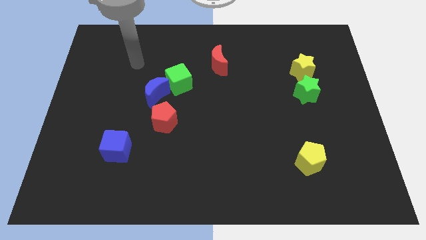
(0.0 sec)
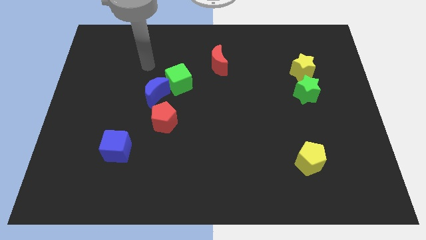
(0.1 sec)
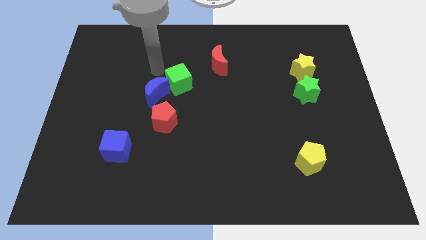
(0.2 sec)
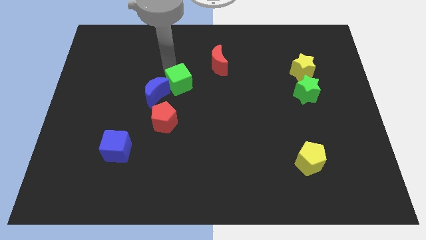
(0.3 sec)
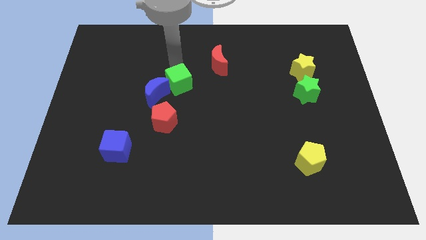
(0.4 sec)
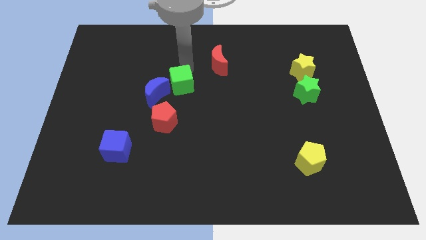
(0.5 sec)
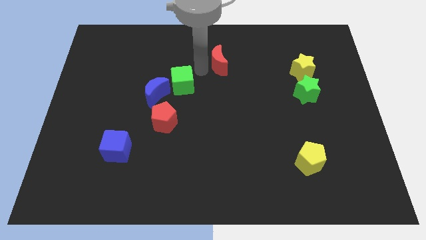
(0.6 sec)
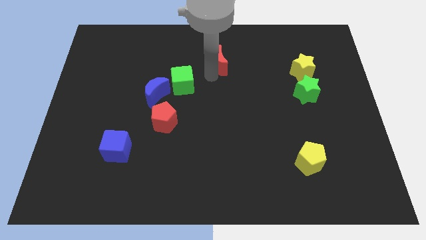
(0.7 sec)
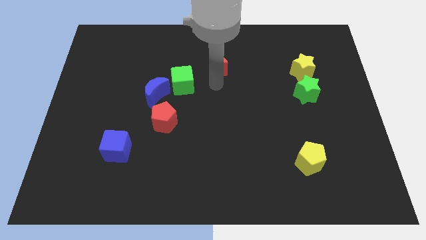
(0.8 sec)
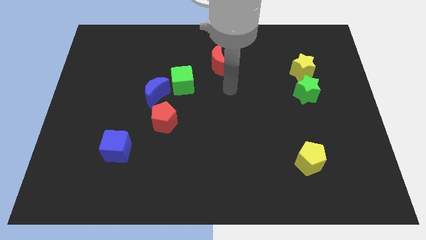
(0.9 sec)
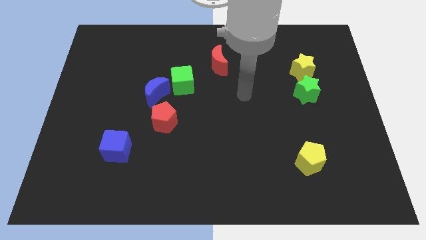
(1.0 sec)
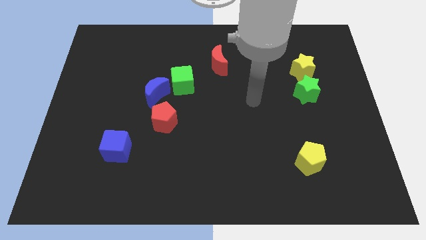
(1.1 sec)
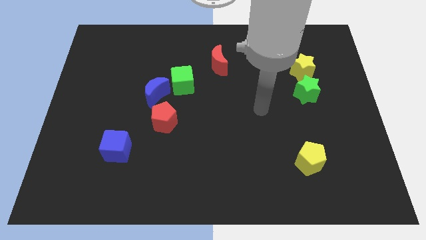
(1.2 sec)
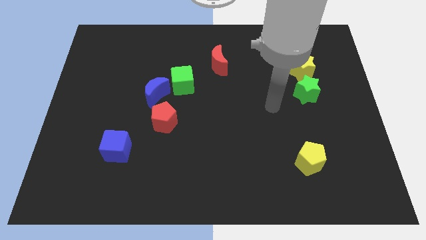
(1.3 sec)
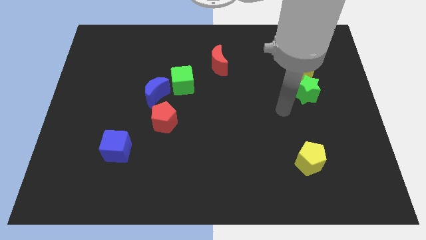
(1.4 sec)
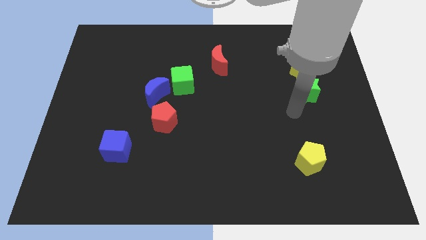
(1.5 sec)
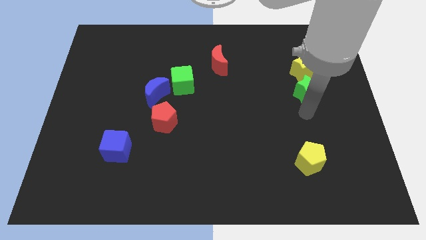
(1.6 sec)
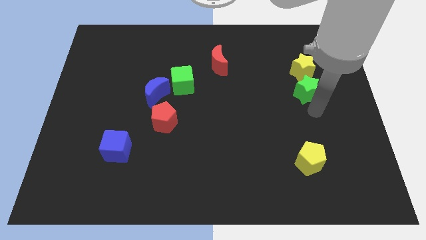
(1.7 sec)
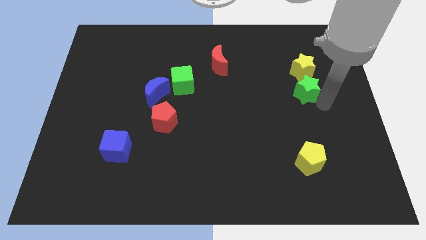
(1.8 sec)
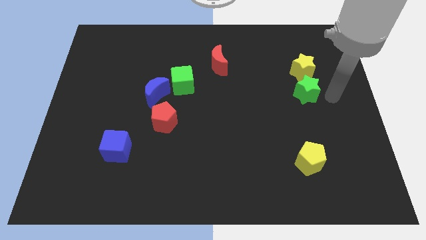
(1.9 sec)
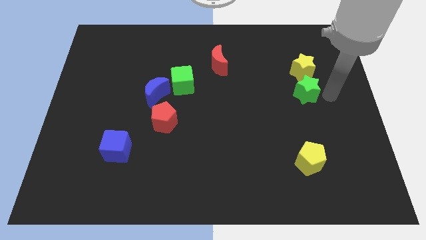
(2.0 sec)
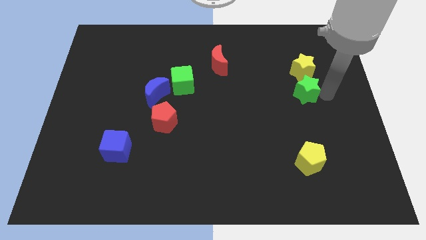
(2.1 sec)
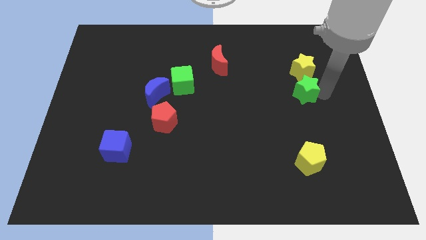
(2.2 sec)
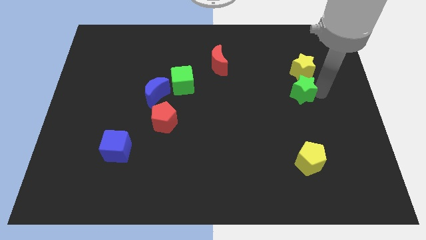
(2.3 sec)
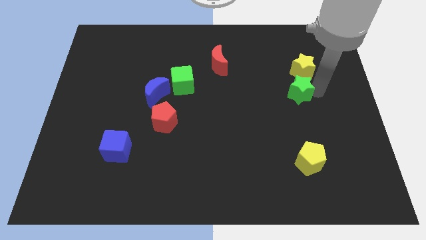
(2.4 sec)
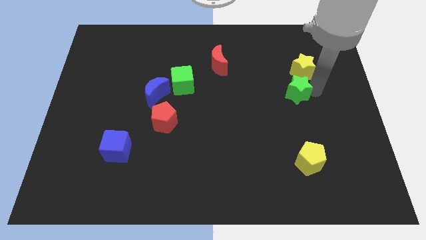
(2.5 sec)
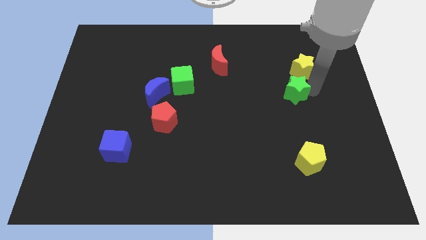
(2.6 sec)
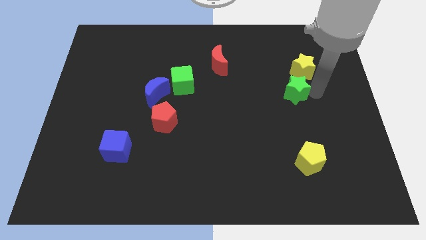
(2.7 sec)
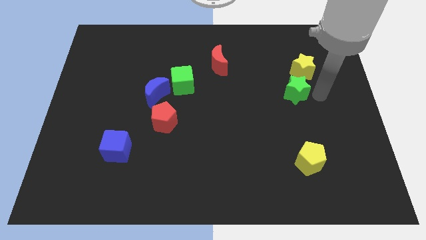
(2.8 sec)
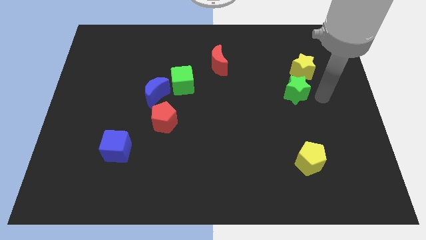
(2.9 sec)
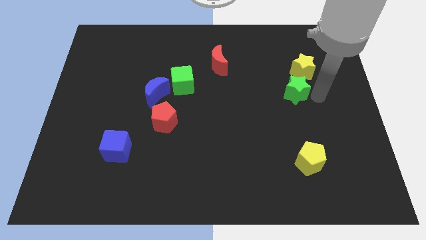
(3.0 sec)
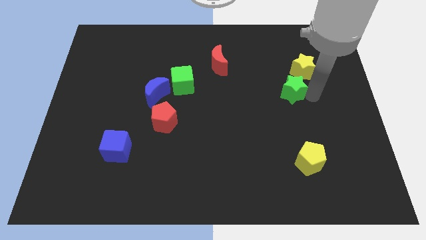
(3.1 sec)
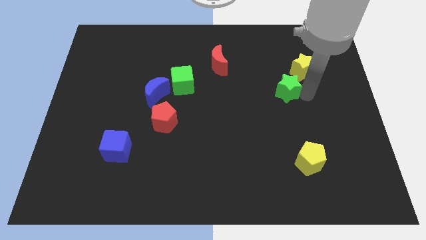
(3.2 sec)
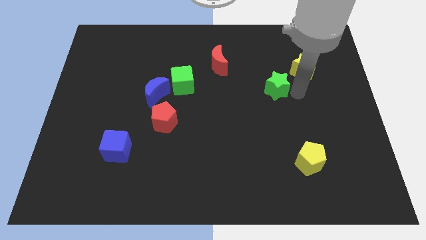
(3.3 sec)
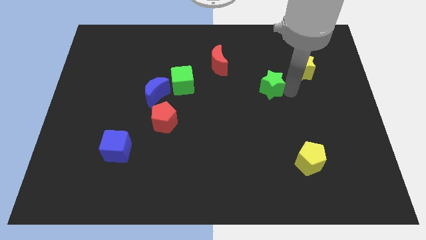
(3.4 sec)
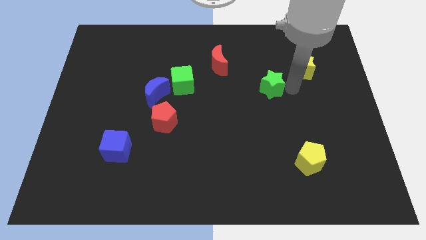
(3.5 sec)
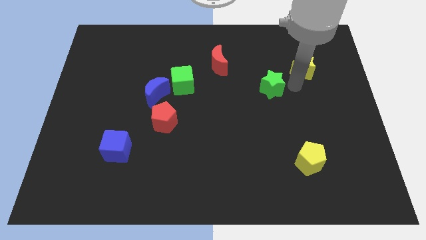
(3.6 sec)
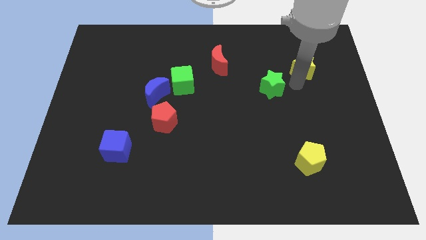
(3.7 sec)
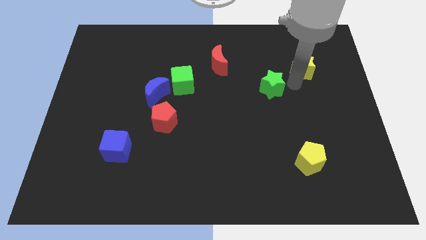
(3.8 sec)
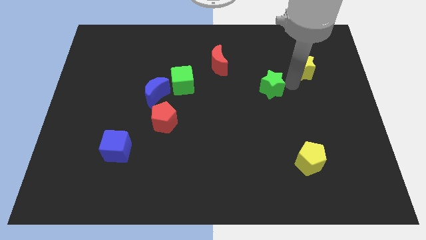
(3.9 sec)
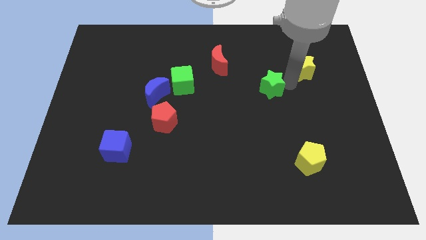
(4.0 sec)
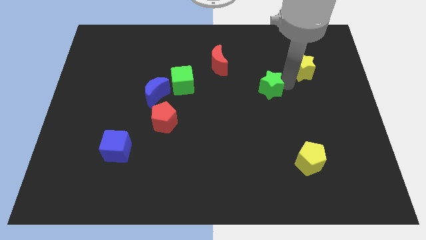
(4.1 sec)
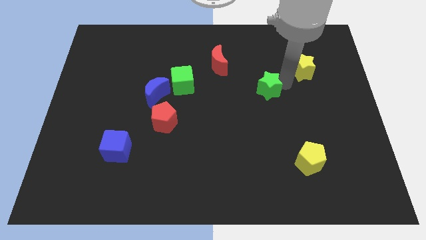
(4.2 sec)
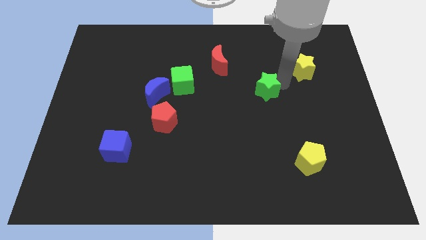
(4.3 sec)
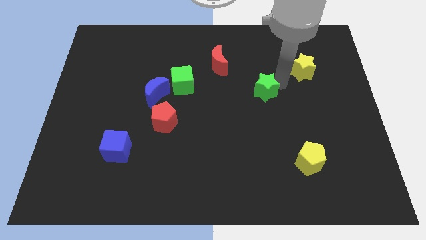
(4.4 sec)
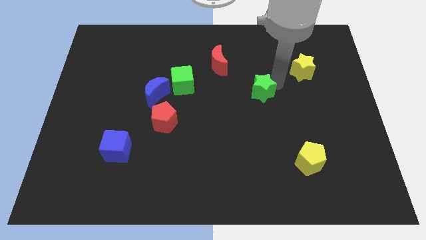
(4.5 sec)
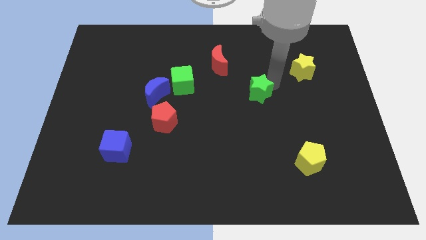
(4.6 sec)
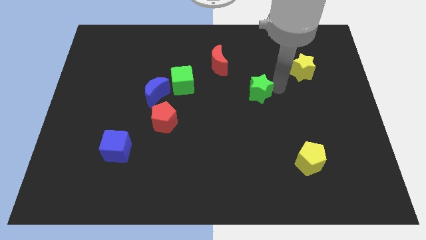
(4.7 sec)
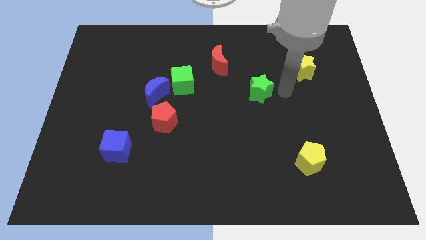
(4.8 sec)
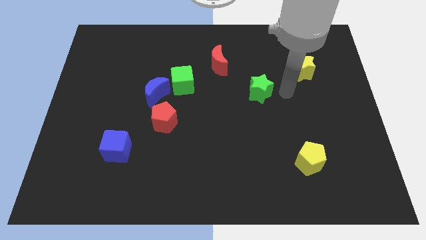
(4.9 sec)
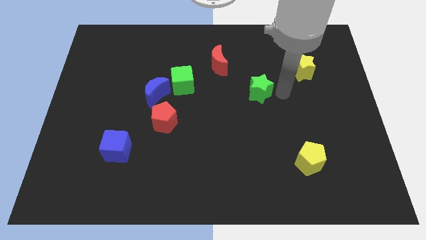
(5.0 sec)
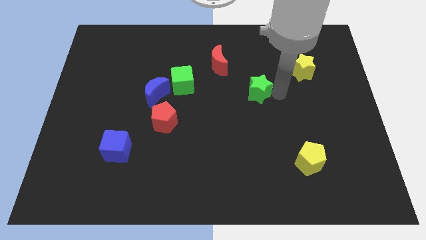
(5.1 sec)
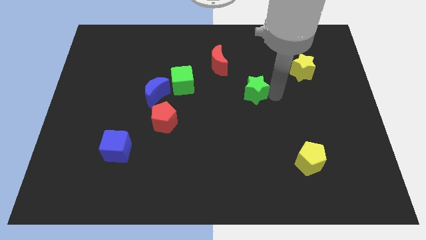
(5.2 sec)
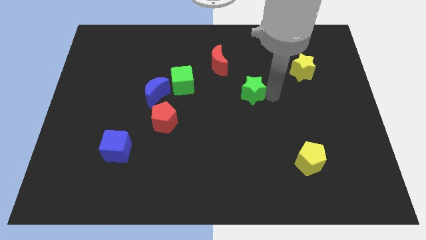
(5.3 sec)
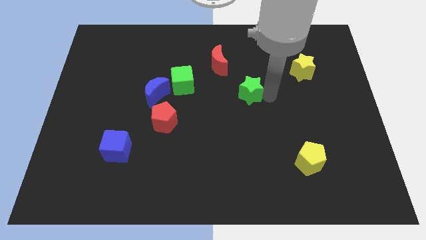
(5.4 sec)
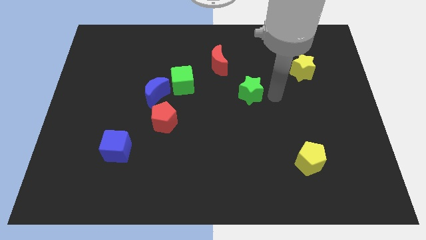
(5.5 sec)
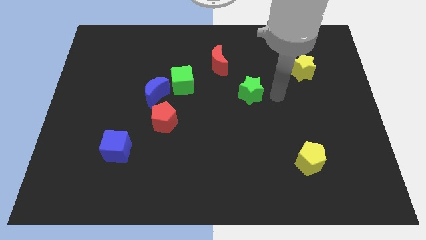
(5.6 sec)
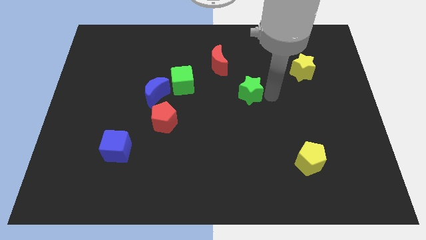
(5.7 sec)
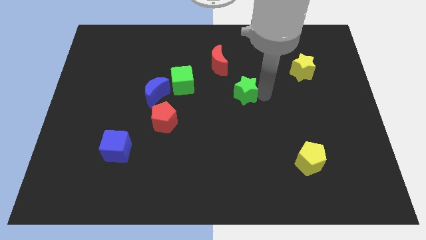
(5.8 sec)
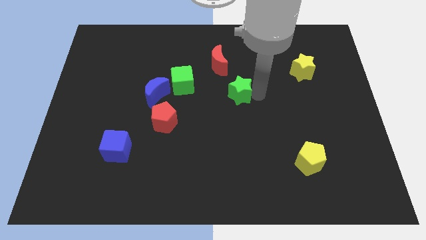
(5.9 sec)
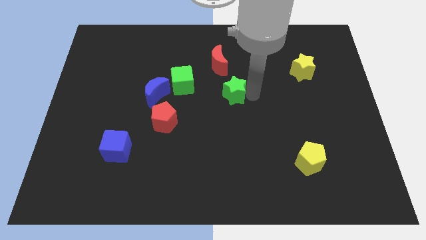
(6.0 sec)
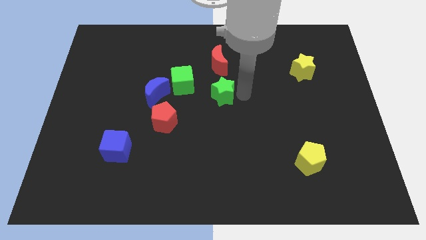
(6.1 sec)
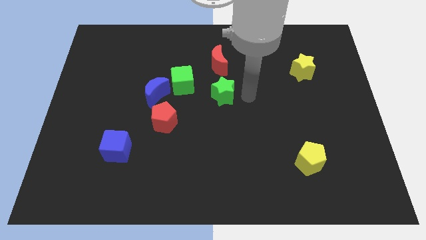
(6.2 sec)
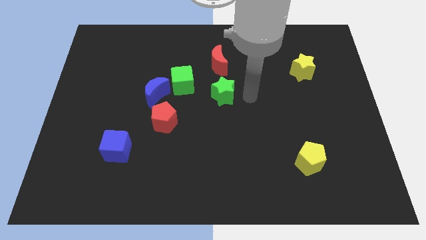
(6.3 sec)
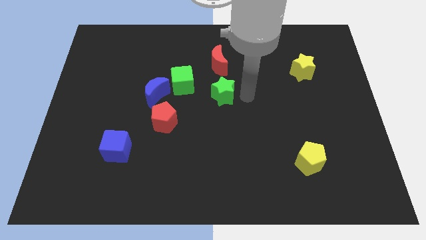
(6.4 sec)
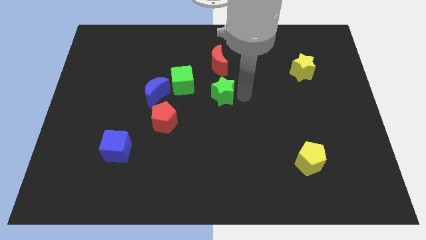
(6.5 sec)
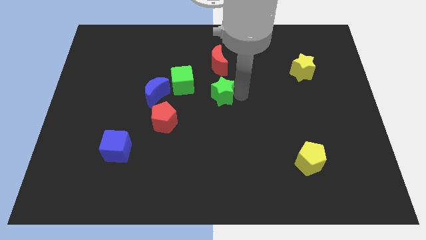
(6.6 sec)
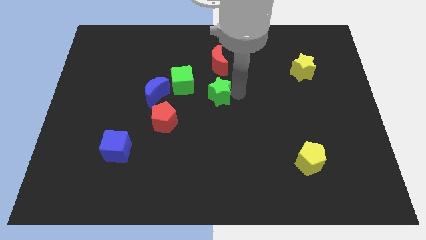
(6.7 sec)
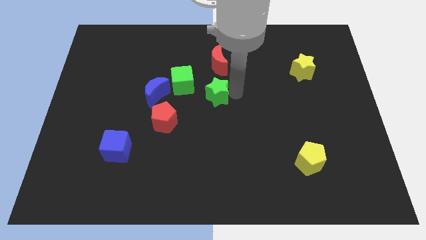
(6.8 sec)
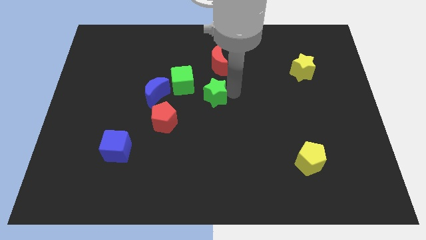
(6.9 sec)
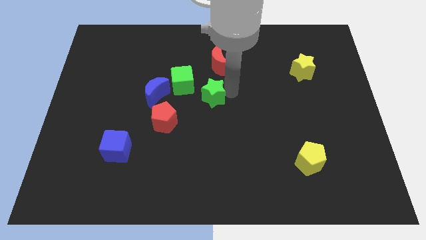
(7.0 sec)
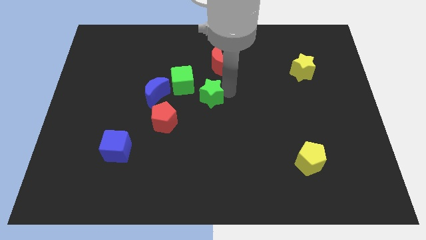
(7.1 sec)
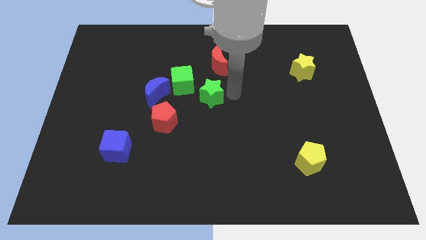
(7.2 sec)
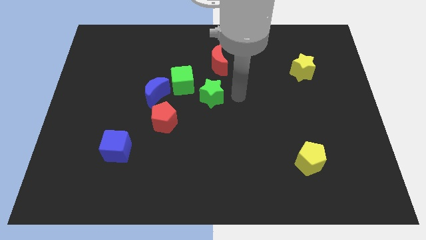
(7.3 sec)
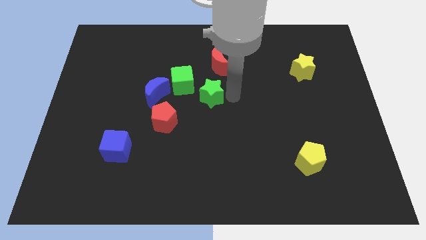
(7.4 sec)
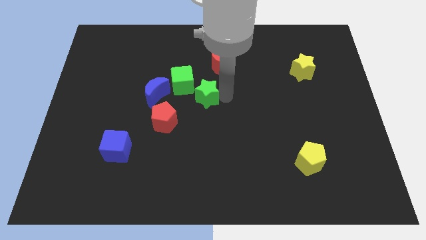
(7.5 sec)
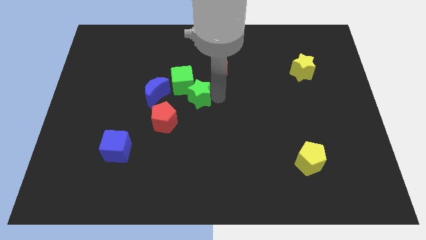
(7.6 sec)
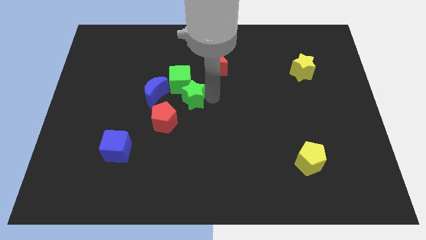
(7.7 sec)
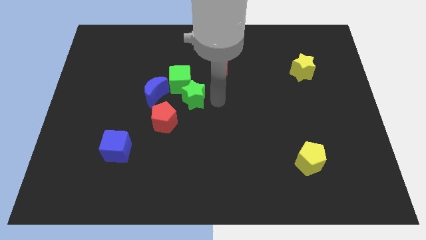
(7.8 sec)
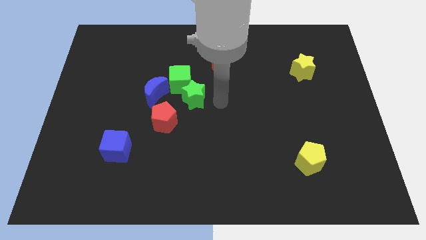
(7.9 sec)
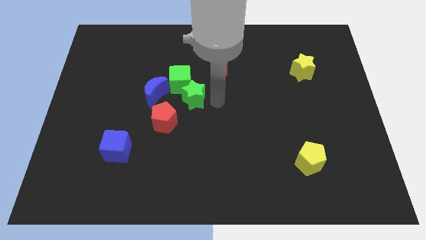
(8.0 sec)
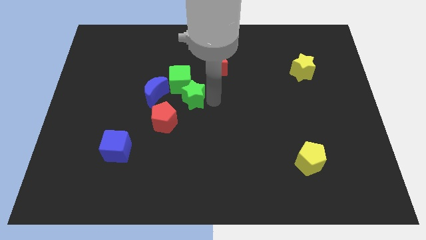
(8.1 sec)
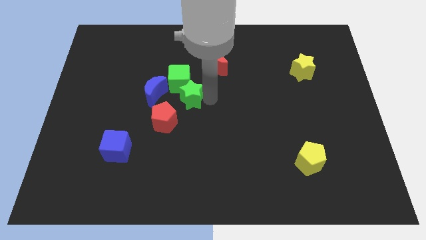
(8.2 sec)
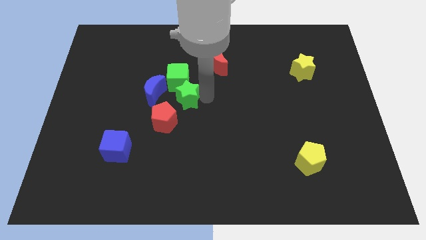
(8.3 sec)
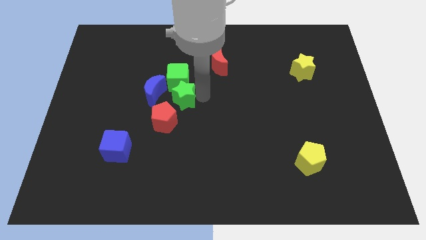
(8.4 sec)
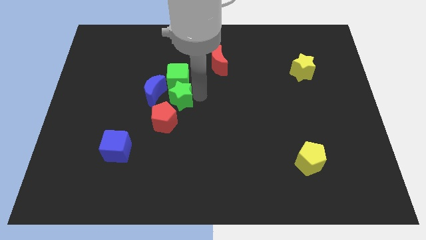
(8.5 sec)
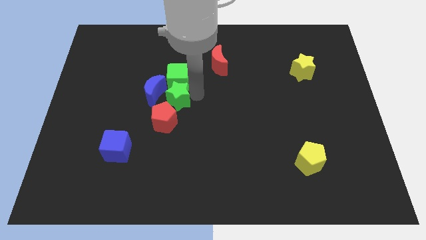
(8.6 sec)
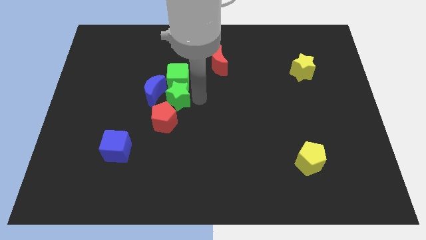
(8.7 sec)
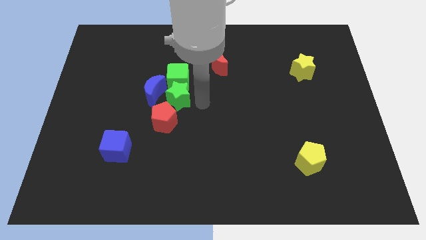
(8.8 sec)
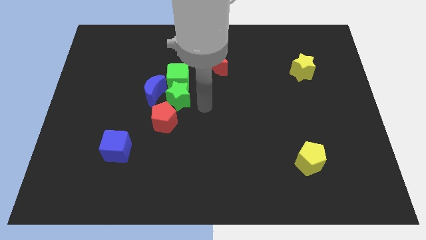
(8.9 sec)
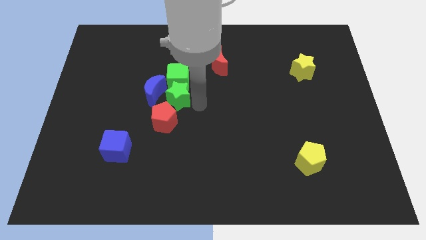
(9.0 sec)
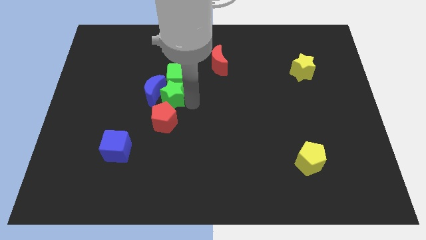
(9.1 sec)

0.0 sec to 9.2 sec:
slide the green star to the blue moon
